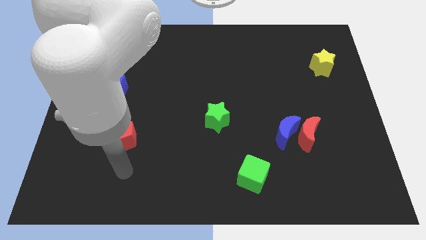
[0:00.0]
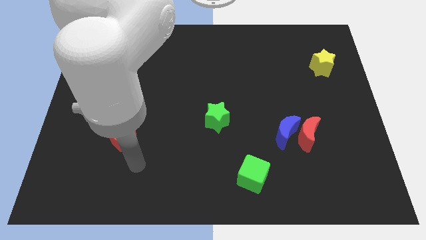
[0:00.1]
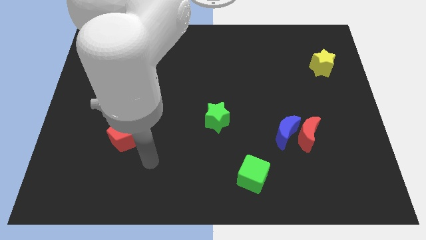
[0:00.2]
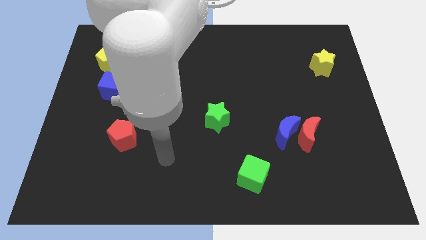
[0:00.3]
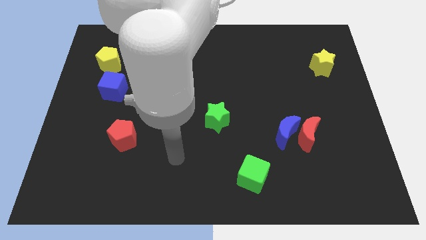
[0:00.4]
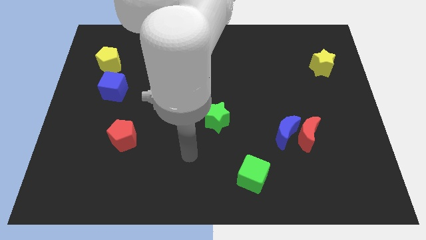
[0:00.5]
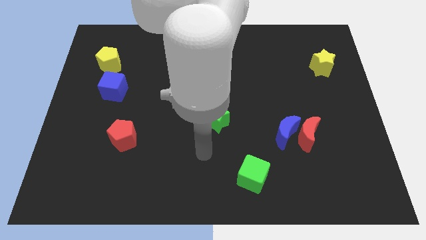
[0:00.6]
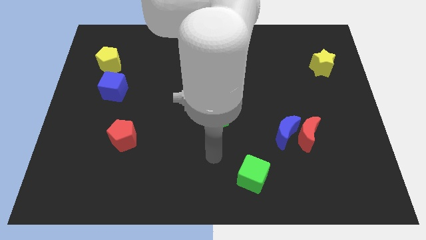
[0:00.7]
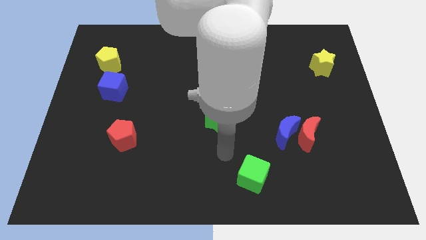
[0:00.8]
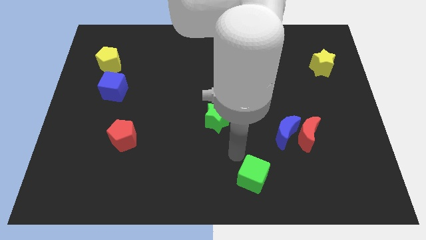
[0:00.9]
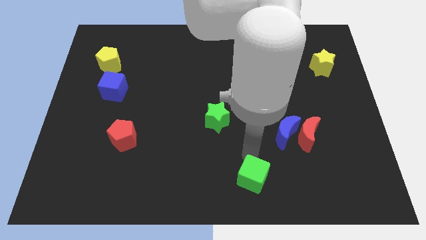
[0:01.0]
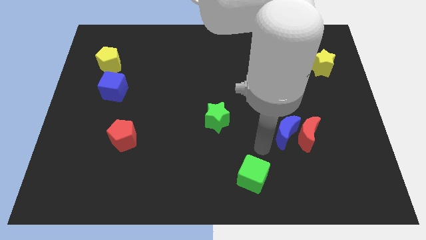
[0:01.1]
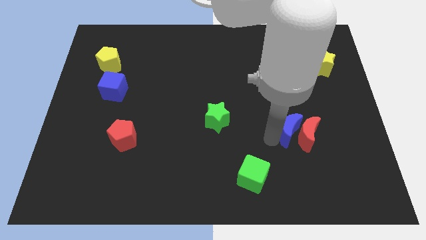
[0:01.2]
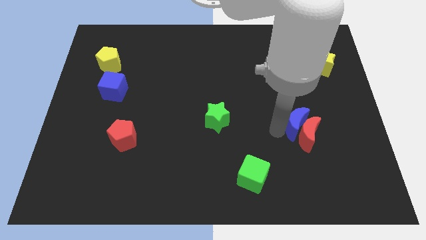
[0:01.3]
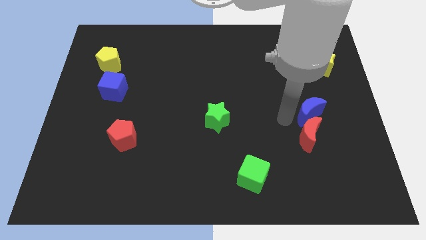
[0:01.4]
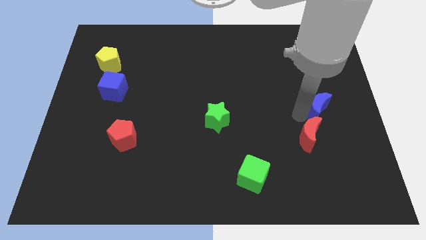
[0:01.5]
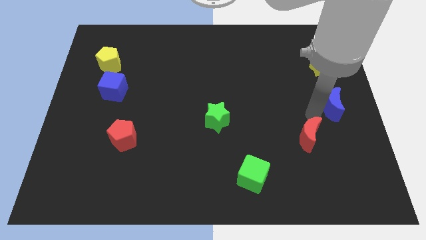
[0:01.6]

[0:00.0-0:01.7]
move the red moon away from the blue moon

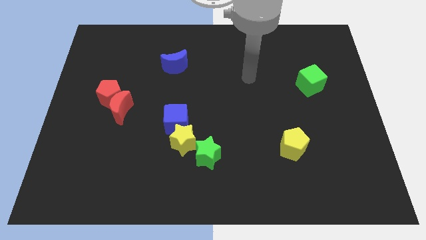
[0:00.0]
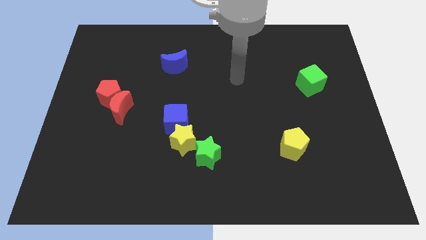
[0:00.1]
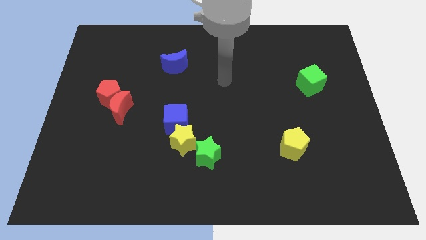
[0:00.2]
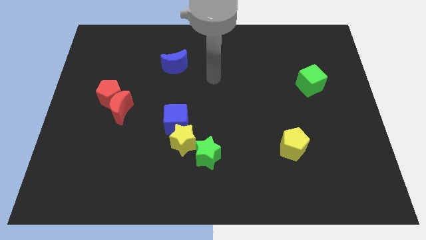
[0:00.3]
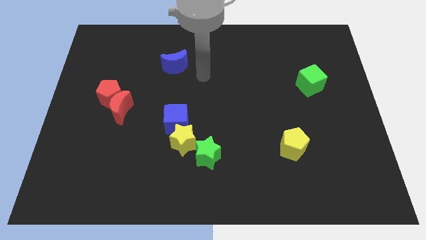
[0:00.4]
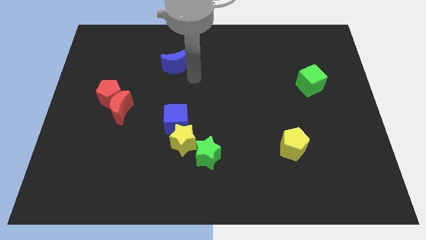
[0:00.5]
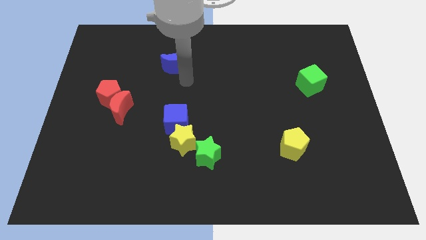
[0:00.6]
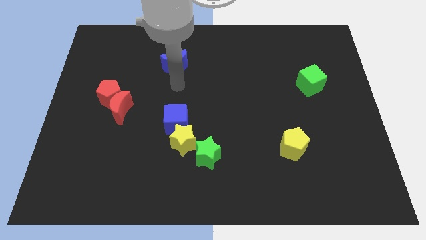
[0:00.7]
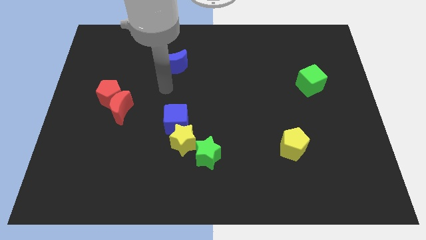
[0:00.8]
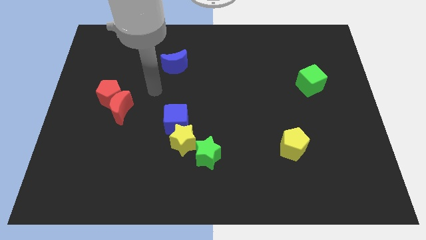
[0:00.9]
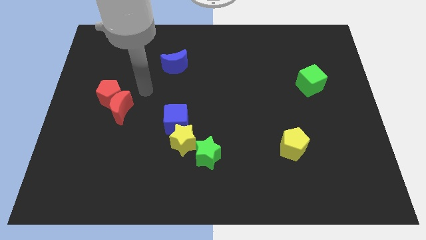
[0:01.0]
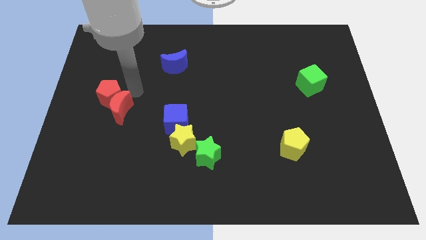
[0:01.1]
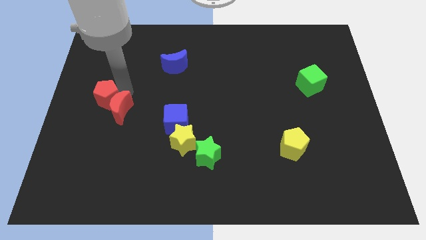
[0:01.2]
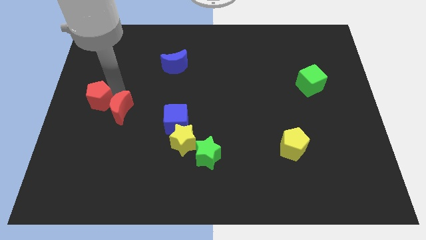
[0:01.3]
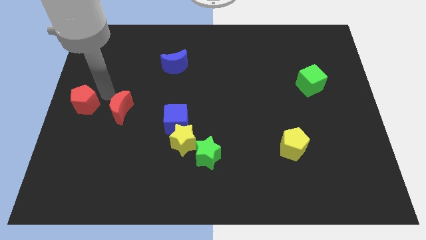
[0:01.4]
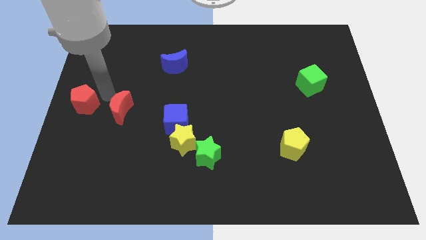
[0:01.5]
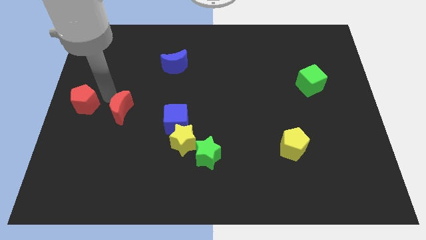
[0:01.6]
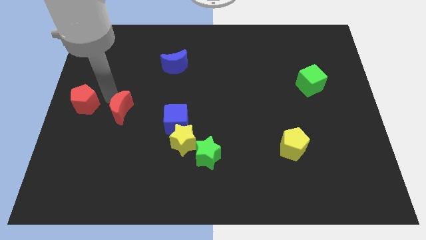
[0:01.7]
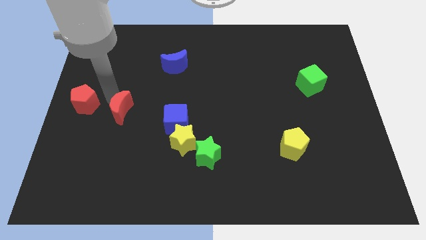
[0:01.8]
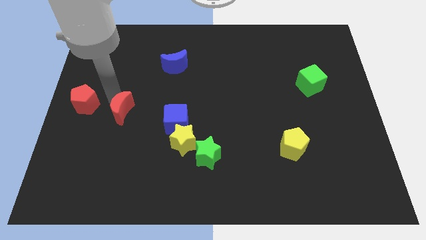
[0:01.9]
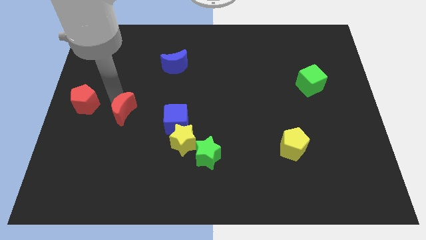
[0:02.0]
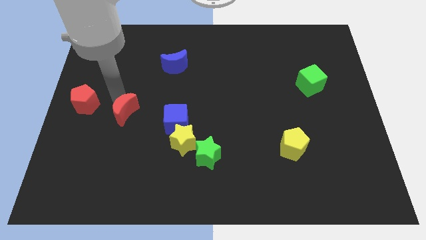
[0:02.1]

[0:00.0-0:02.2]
separate the red moon from the red pentagon

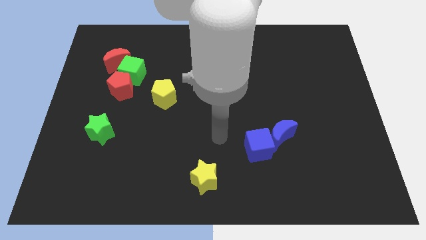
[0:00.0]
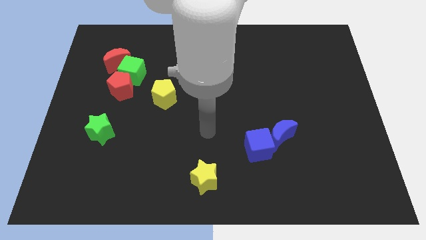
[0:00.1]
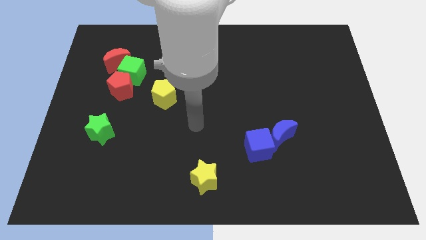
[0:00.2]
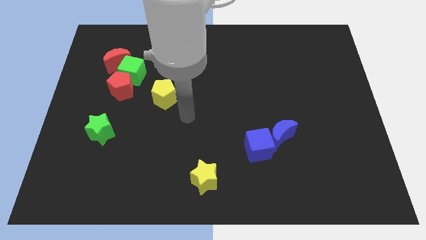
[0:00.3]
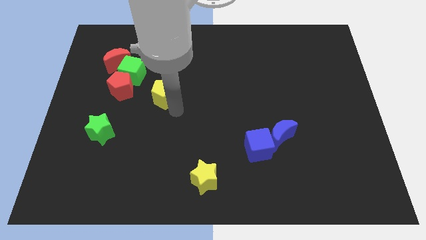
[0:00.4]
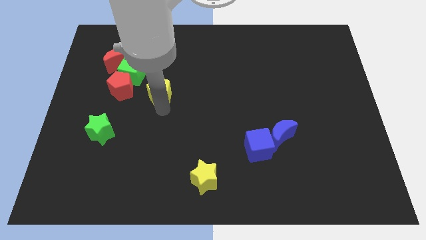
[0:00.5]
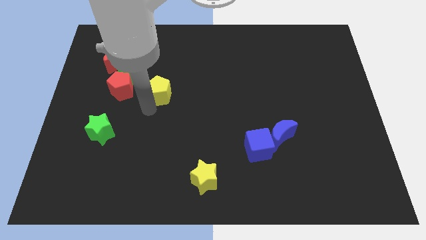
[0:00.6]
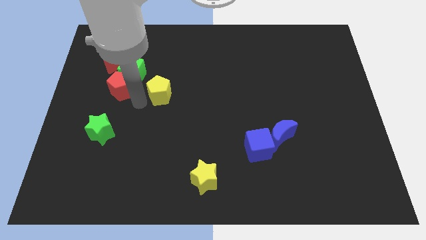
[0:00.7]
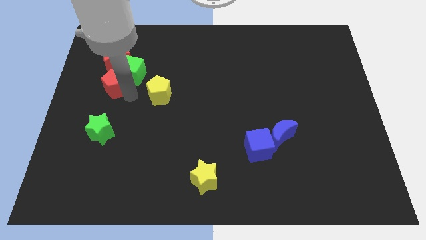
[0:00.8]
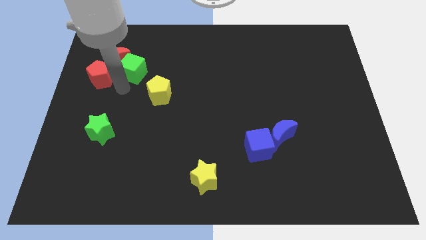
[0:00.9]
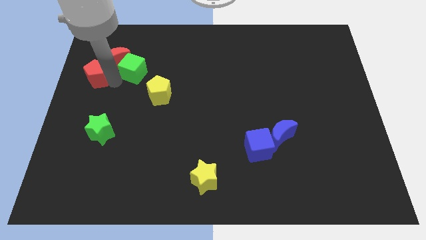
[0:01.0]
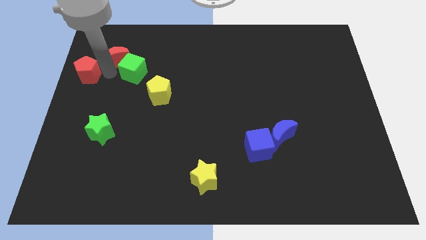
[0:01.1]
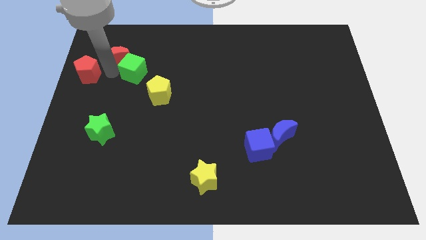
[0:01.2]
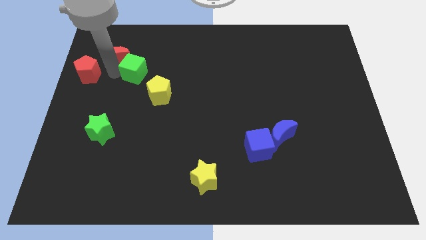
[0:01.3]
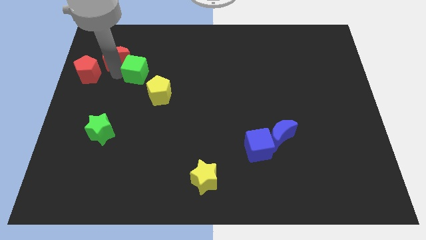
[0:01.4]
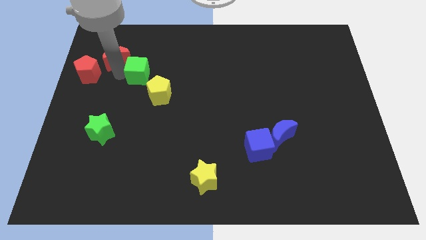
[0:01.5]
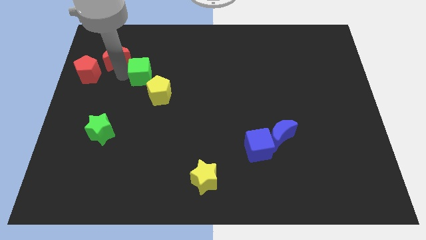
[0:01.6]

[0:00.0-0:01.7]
pull the green cube apart from the red pentagon and red moon

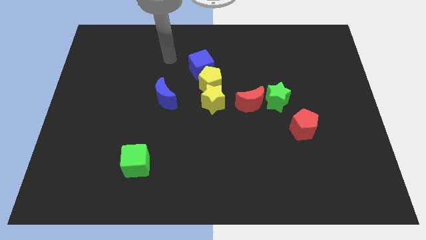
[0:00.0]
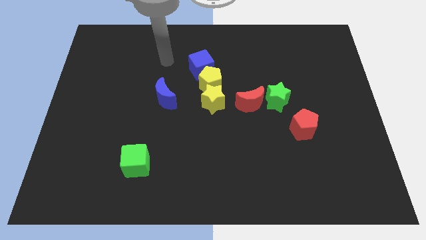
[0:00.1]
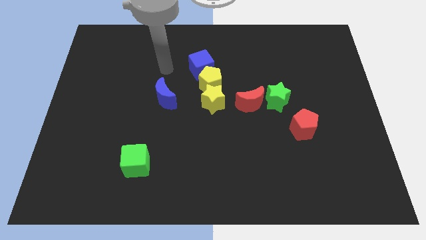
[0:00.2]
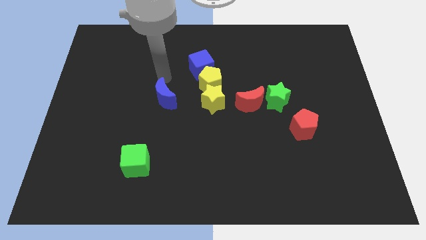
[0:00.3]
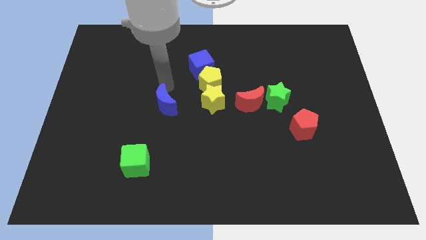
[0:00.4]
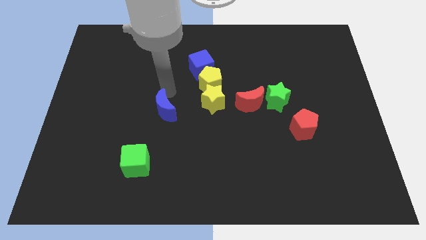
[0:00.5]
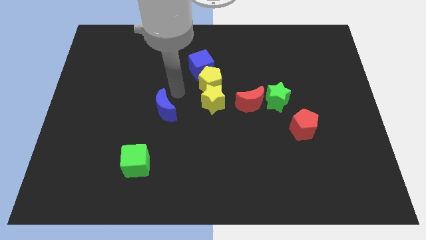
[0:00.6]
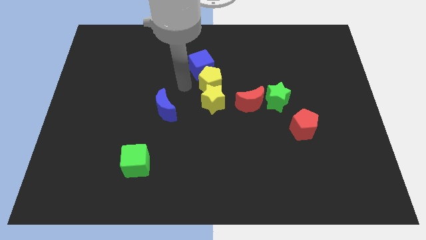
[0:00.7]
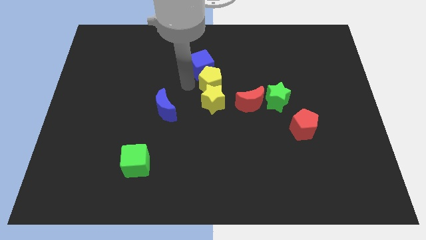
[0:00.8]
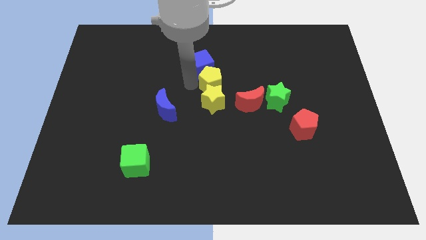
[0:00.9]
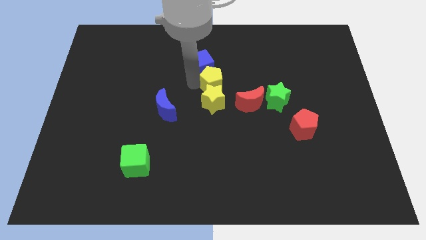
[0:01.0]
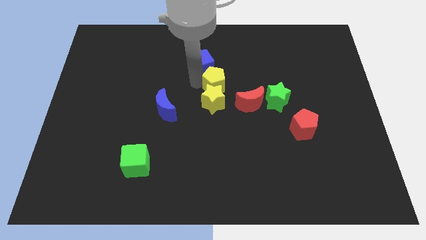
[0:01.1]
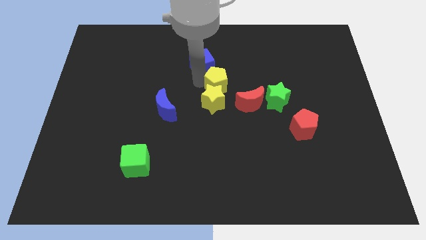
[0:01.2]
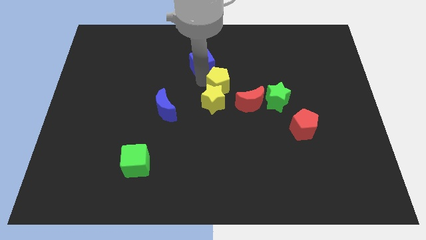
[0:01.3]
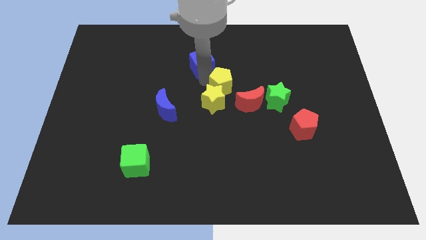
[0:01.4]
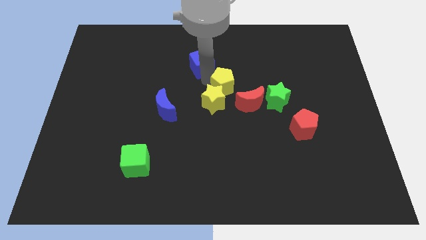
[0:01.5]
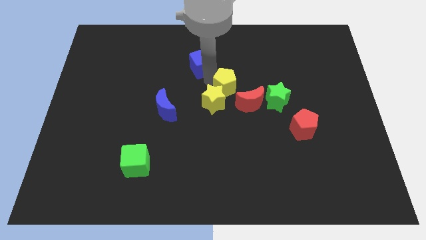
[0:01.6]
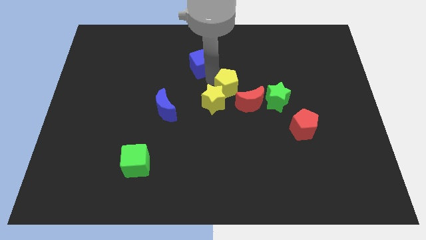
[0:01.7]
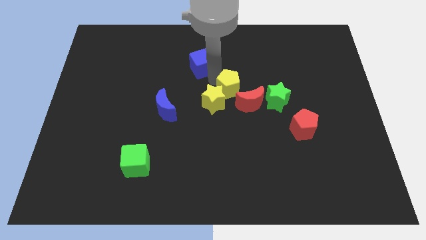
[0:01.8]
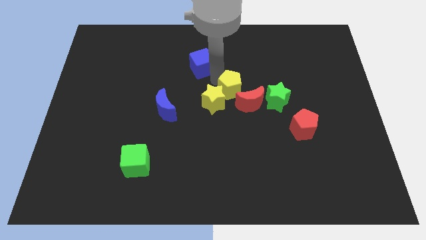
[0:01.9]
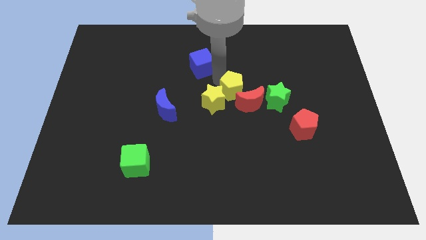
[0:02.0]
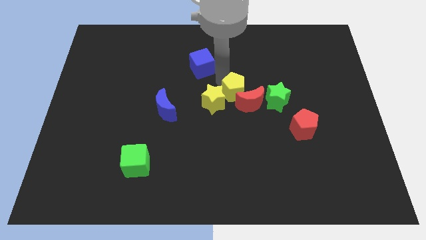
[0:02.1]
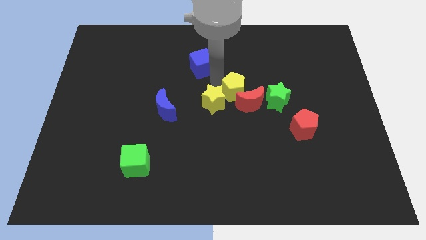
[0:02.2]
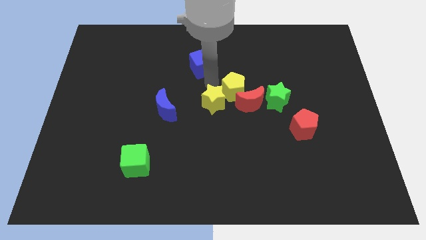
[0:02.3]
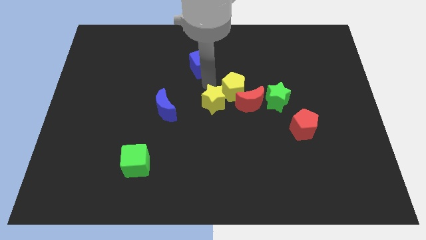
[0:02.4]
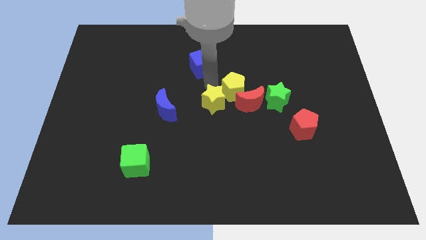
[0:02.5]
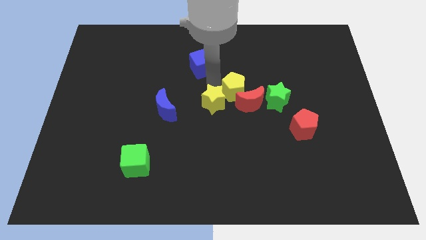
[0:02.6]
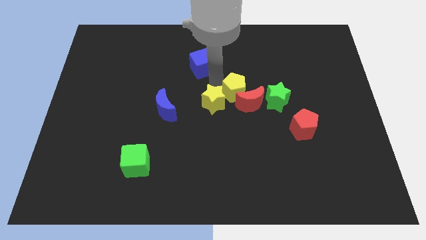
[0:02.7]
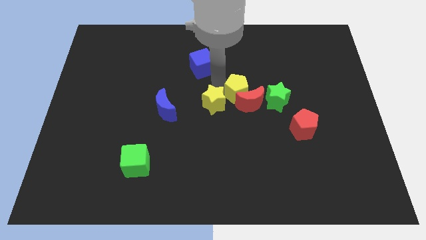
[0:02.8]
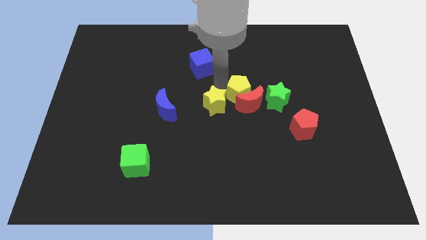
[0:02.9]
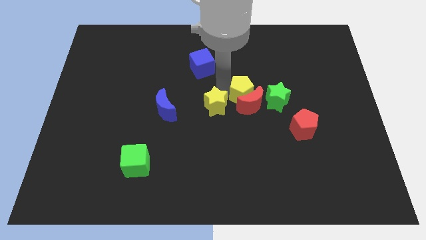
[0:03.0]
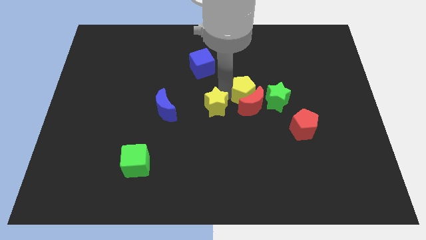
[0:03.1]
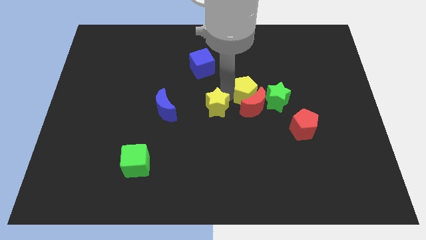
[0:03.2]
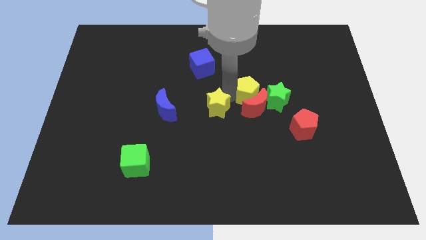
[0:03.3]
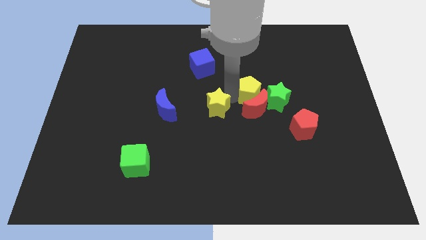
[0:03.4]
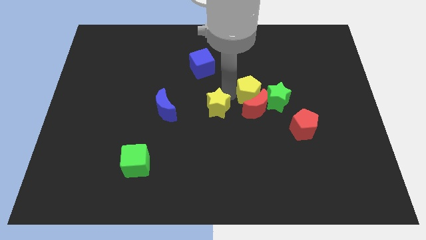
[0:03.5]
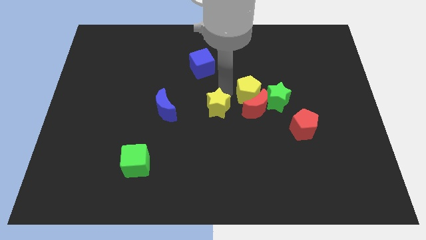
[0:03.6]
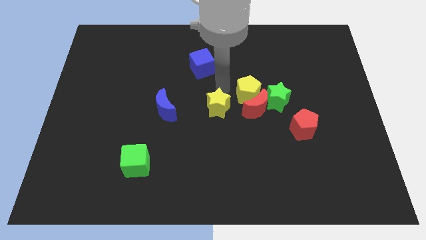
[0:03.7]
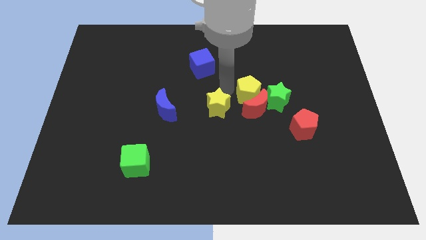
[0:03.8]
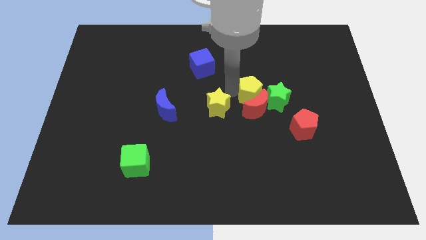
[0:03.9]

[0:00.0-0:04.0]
pull the yellow pentagon apart from the yellow star and blue cube

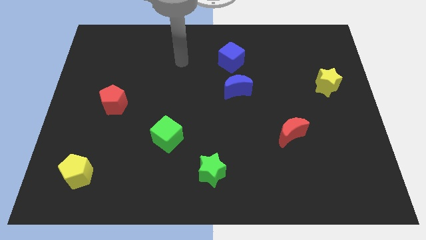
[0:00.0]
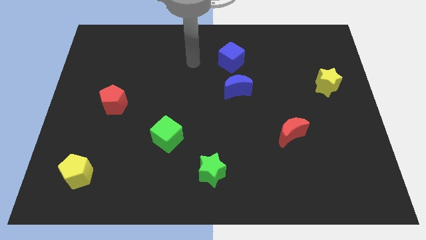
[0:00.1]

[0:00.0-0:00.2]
move the blue moon away from the blue cube
